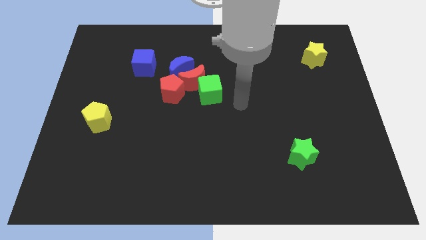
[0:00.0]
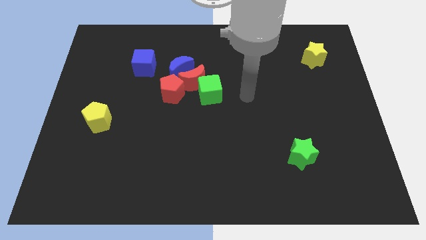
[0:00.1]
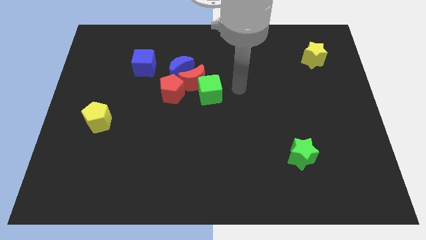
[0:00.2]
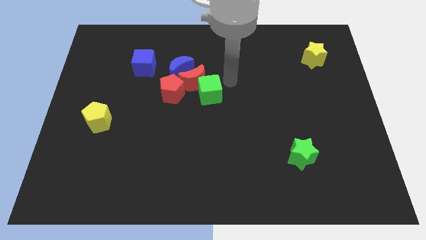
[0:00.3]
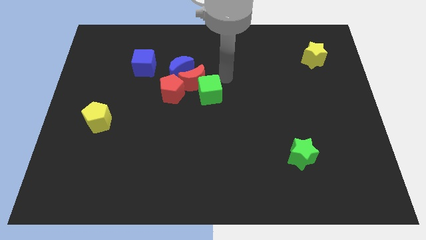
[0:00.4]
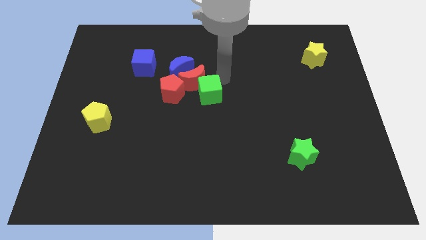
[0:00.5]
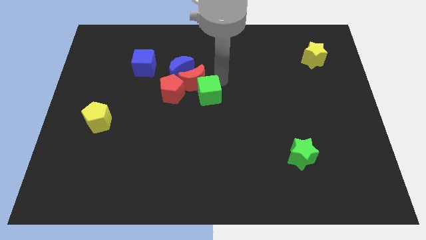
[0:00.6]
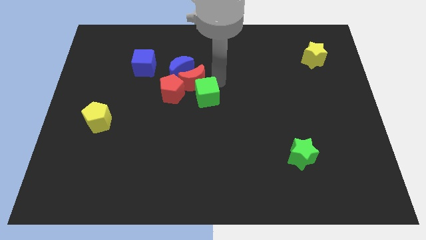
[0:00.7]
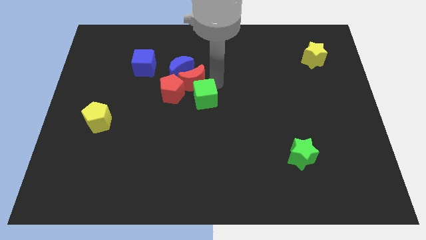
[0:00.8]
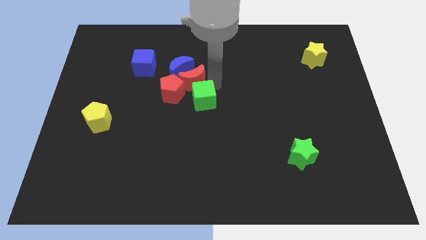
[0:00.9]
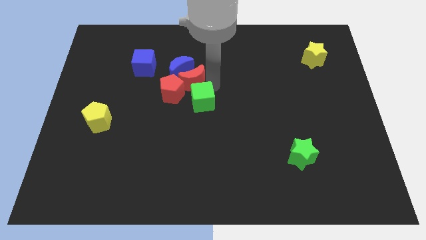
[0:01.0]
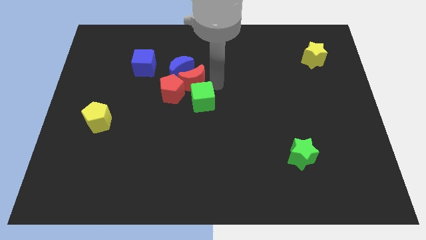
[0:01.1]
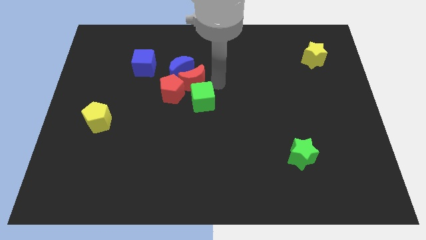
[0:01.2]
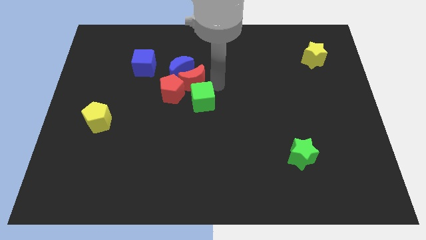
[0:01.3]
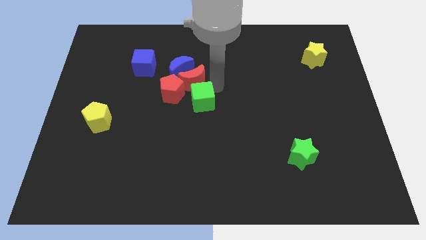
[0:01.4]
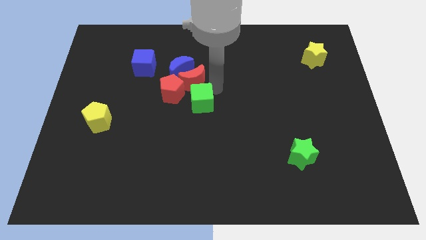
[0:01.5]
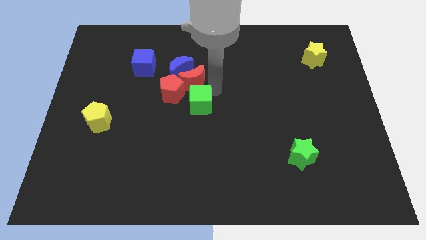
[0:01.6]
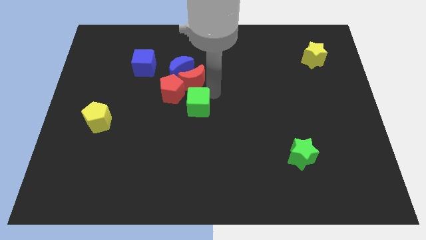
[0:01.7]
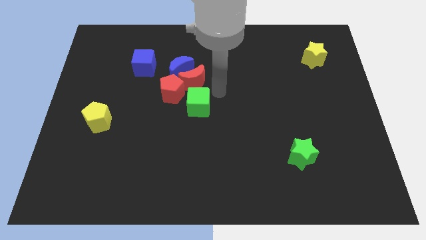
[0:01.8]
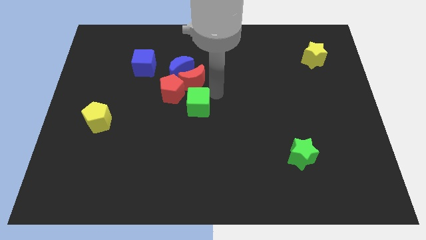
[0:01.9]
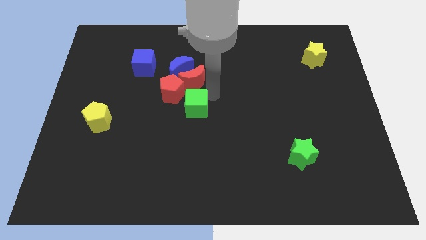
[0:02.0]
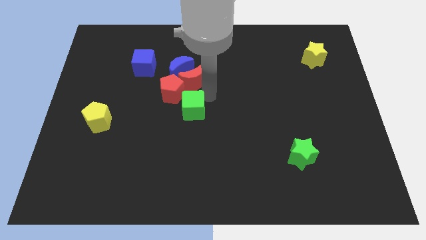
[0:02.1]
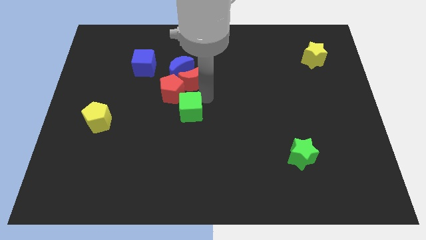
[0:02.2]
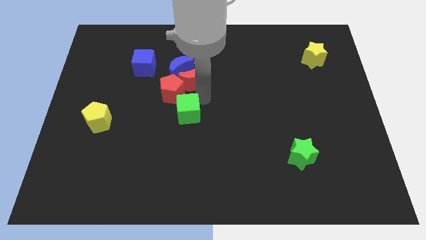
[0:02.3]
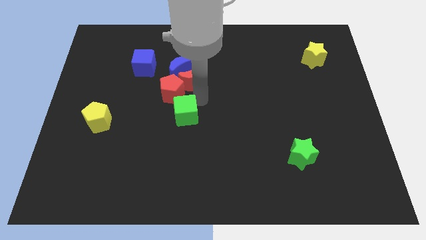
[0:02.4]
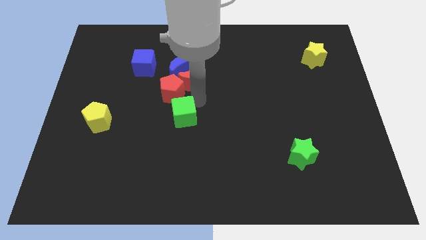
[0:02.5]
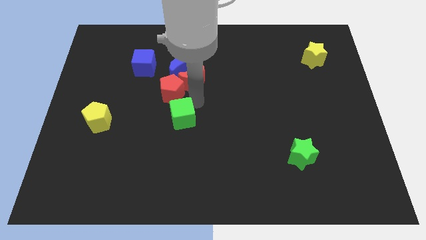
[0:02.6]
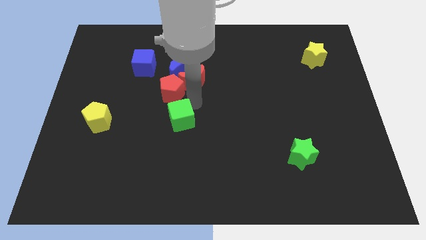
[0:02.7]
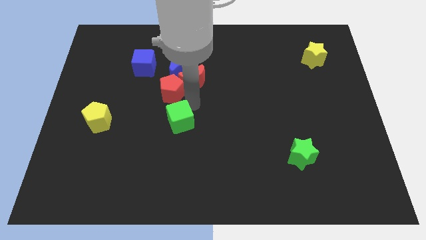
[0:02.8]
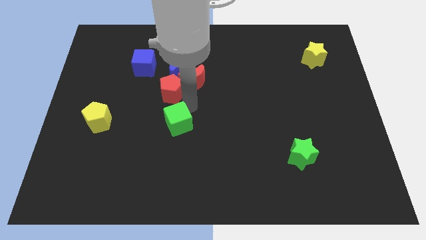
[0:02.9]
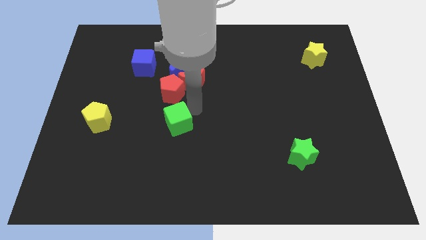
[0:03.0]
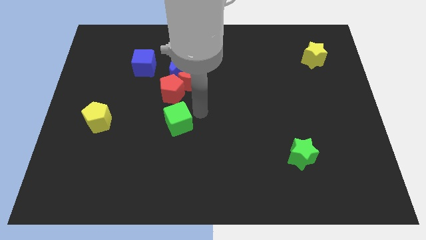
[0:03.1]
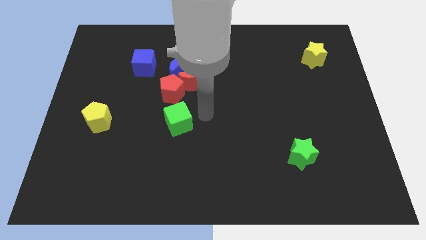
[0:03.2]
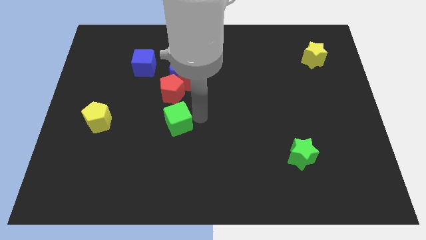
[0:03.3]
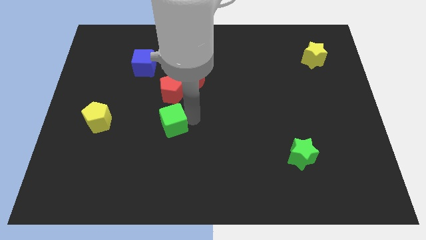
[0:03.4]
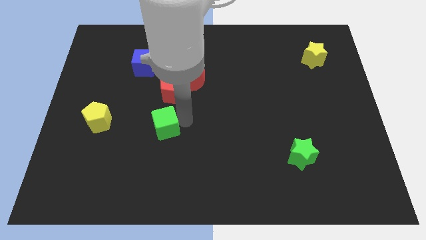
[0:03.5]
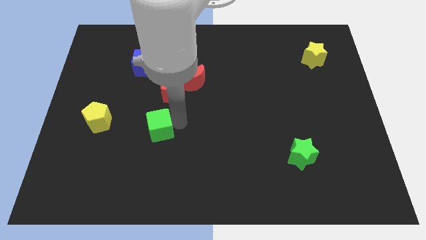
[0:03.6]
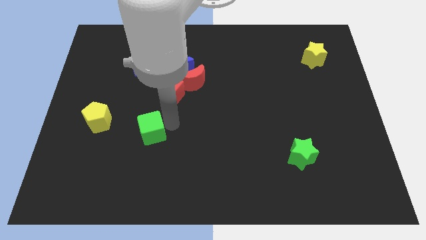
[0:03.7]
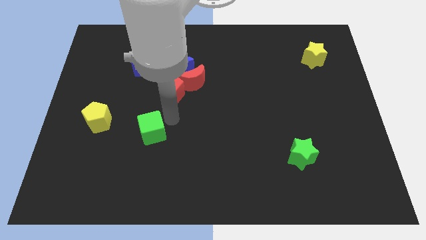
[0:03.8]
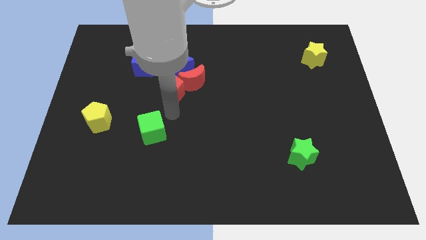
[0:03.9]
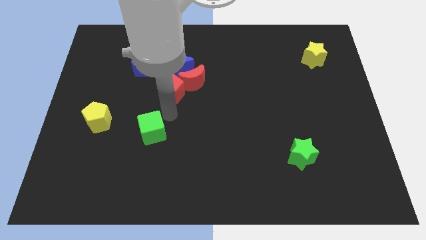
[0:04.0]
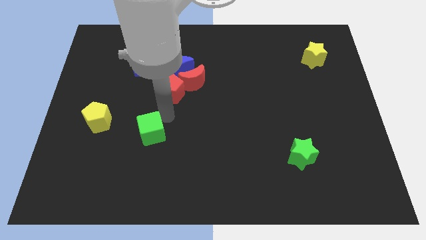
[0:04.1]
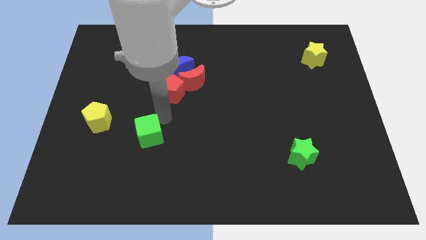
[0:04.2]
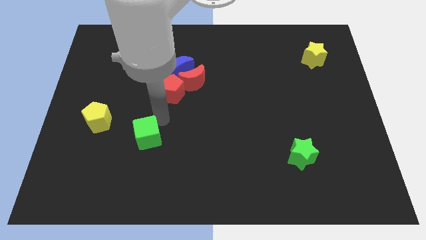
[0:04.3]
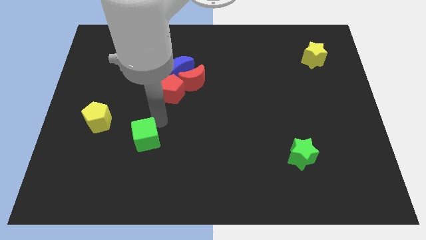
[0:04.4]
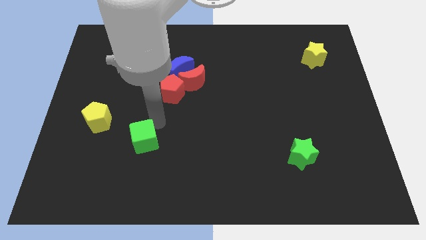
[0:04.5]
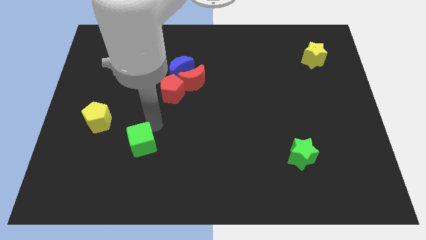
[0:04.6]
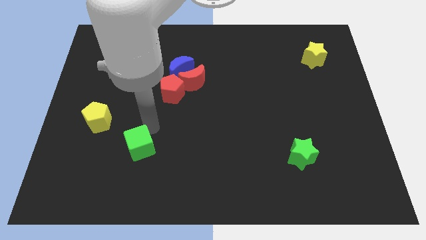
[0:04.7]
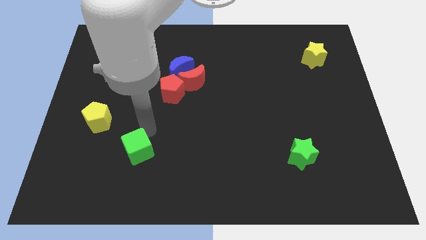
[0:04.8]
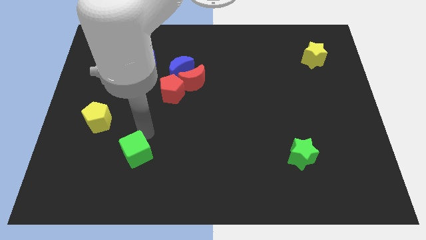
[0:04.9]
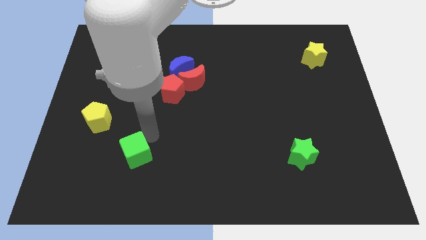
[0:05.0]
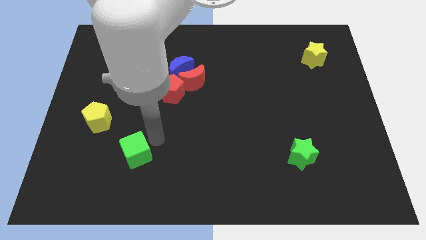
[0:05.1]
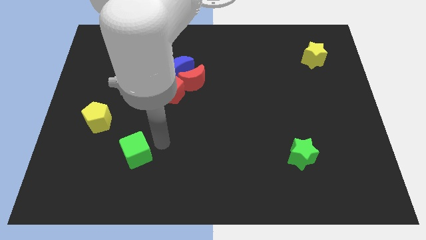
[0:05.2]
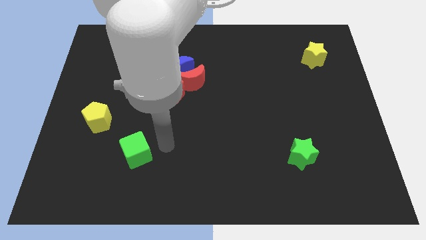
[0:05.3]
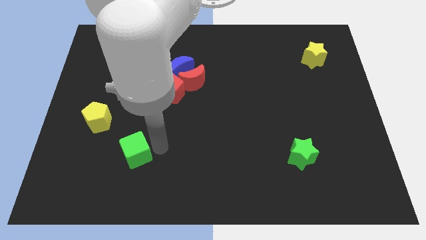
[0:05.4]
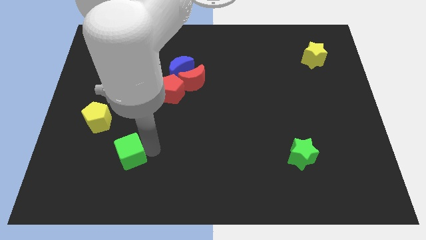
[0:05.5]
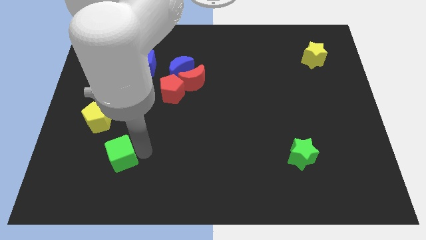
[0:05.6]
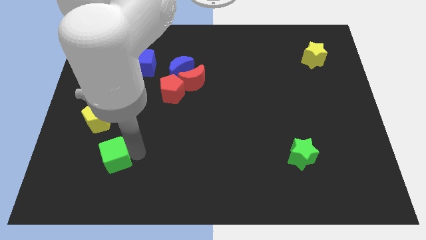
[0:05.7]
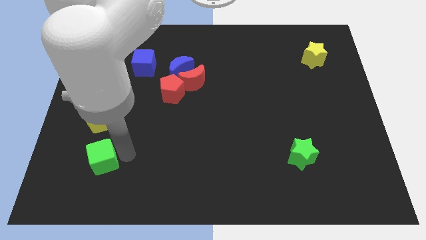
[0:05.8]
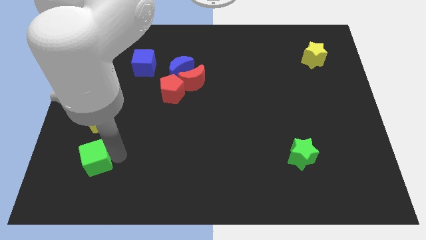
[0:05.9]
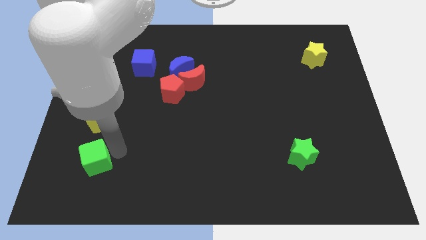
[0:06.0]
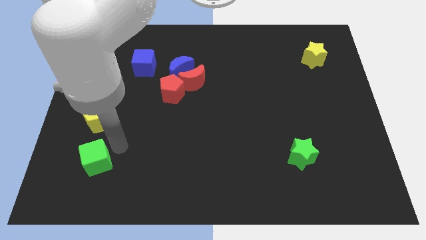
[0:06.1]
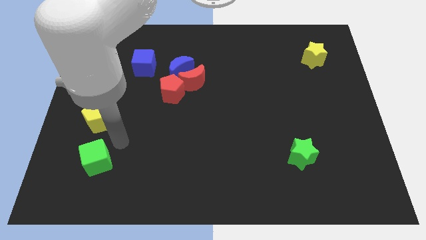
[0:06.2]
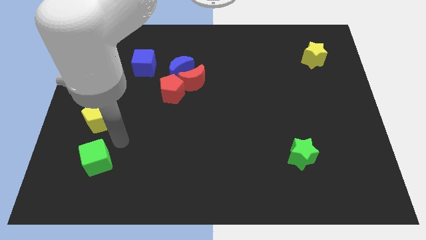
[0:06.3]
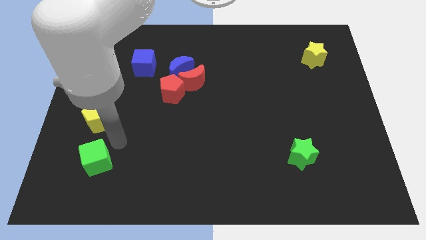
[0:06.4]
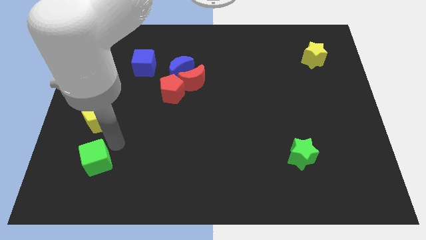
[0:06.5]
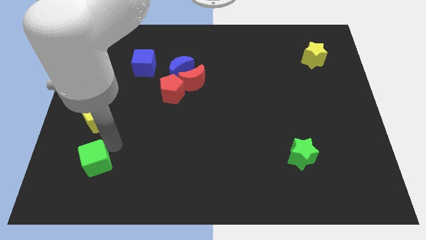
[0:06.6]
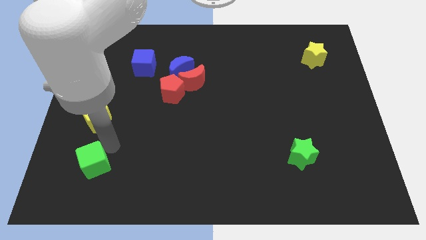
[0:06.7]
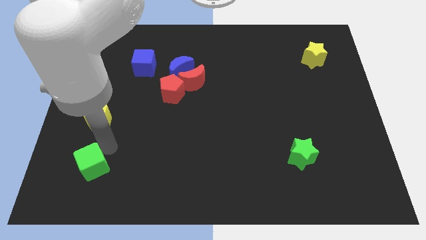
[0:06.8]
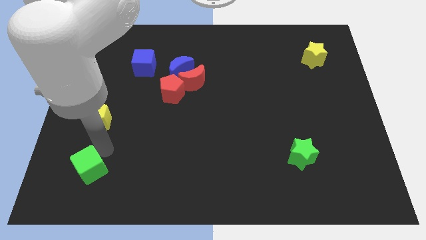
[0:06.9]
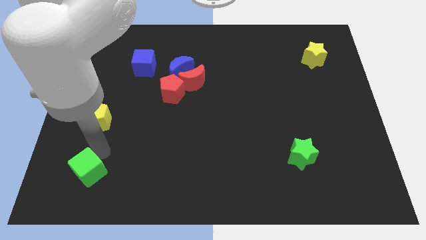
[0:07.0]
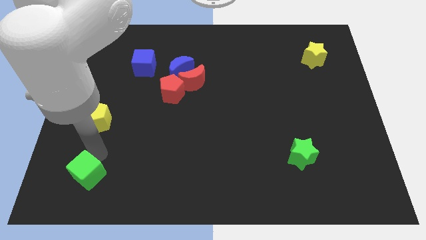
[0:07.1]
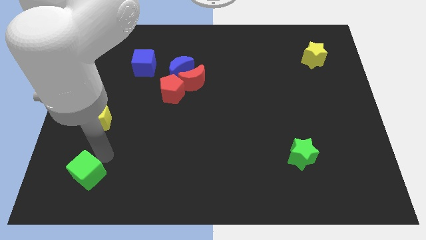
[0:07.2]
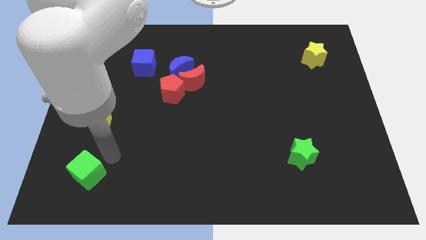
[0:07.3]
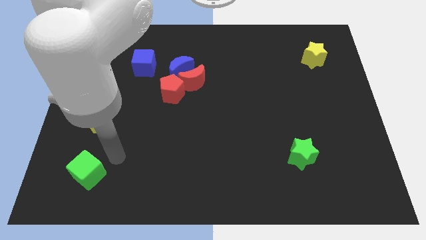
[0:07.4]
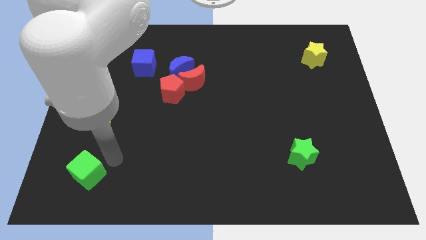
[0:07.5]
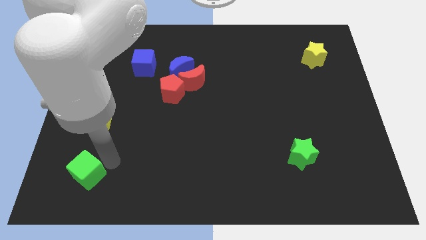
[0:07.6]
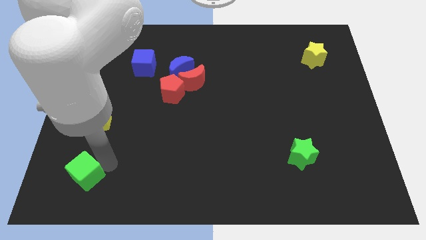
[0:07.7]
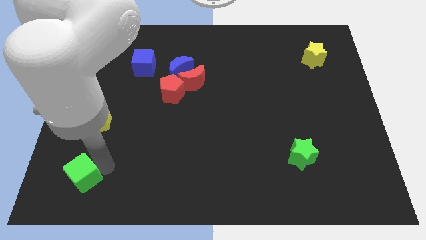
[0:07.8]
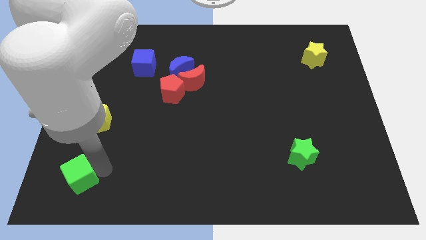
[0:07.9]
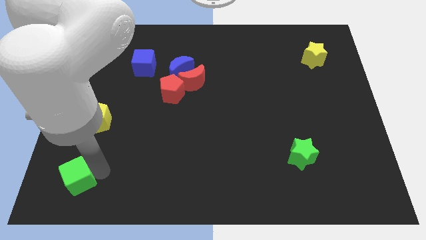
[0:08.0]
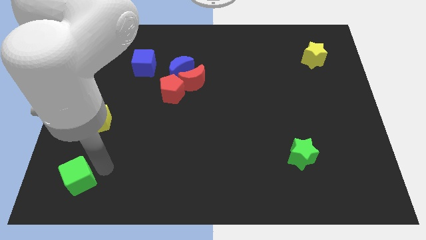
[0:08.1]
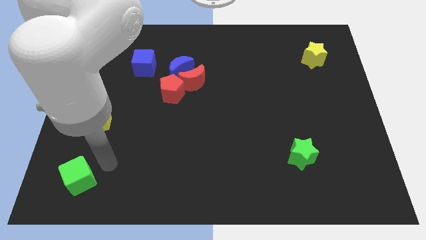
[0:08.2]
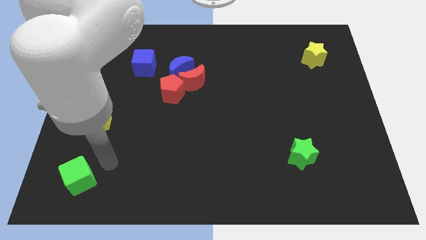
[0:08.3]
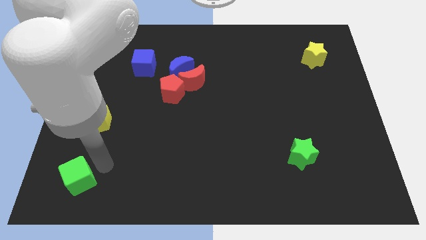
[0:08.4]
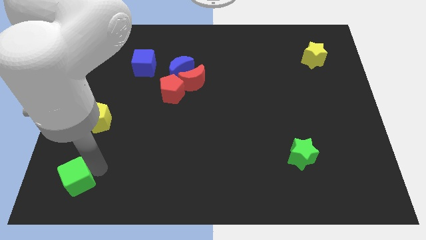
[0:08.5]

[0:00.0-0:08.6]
slide the green cube to the bottom left of the board

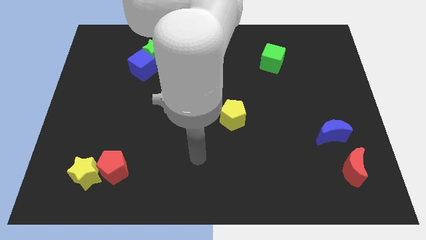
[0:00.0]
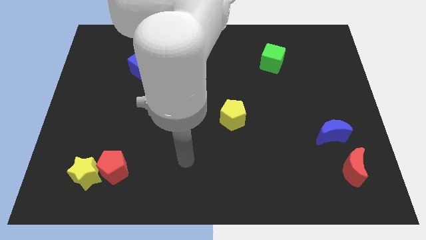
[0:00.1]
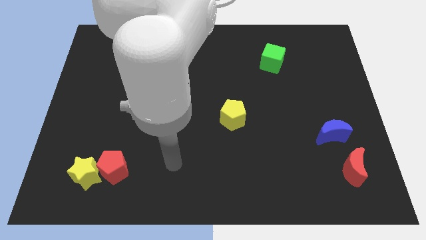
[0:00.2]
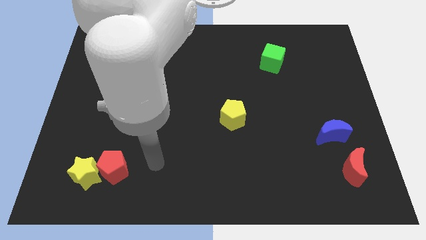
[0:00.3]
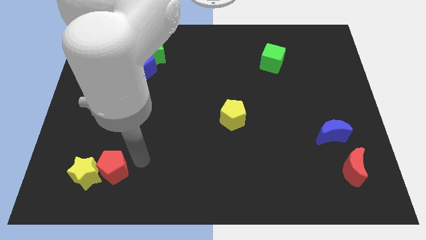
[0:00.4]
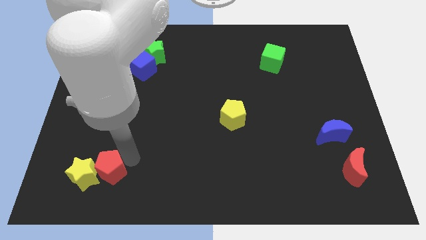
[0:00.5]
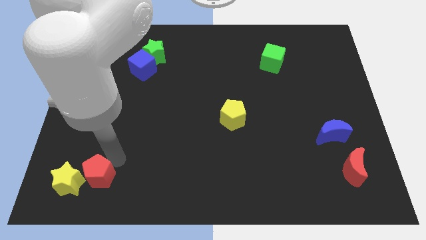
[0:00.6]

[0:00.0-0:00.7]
put the yellow star to the lower left corner
